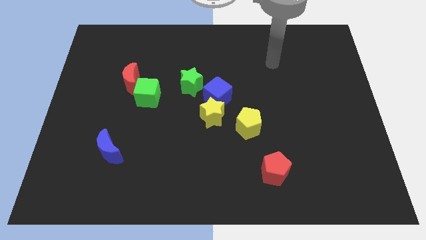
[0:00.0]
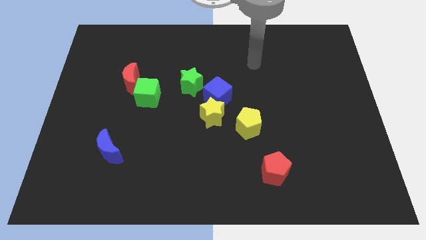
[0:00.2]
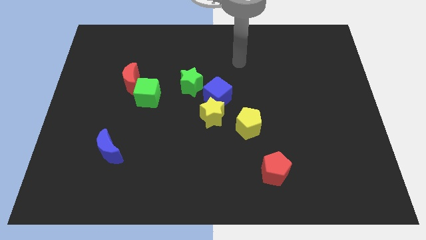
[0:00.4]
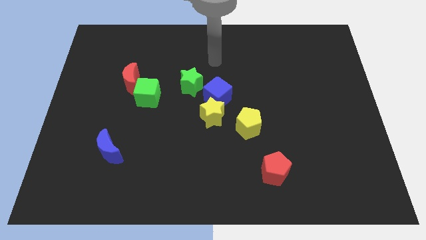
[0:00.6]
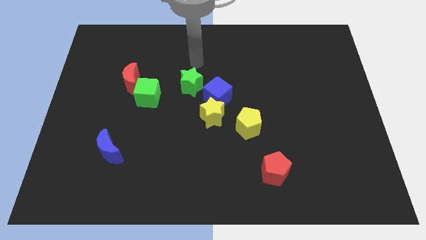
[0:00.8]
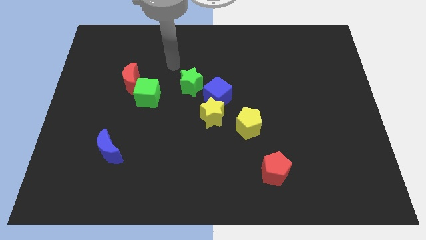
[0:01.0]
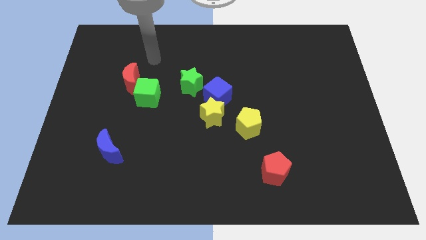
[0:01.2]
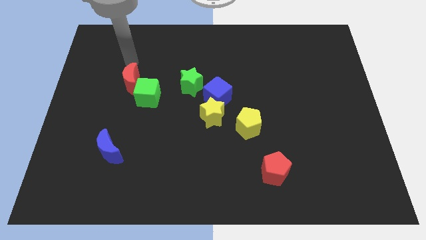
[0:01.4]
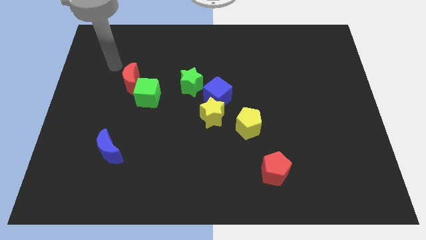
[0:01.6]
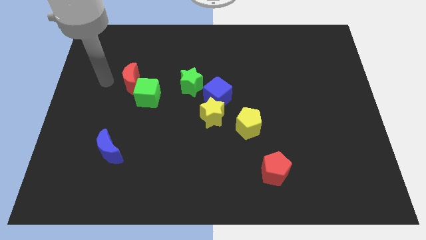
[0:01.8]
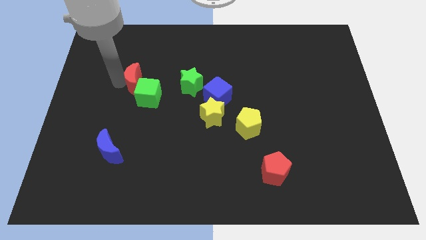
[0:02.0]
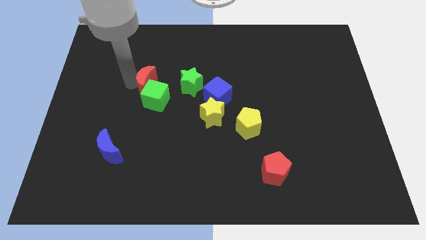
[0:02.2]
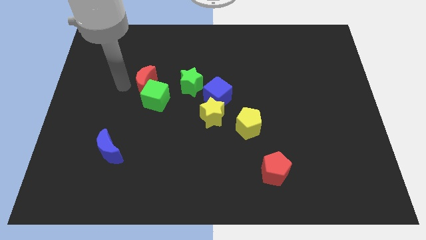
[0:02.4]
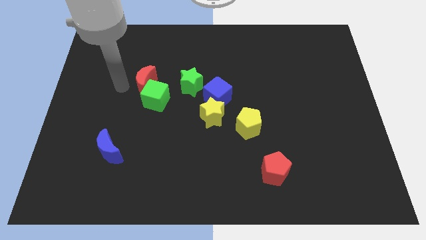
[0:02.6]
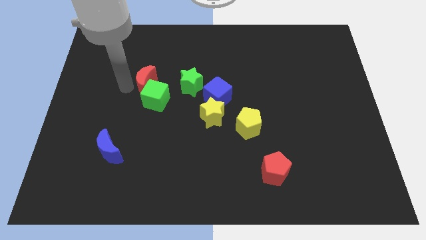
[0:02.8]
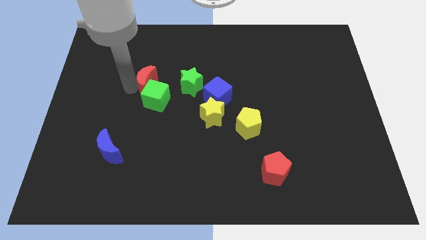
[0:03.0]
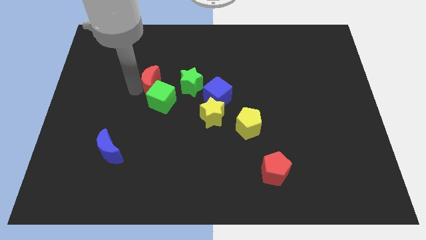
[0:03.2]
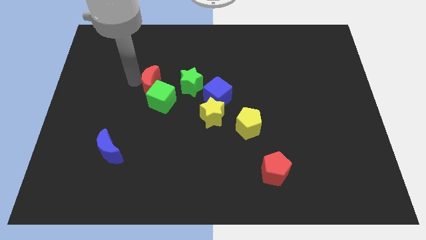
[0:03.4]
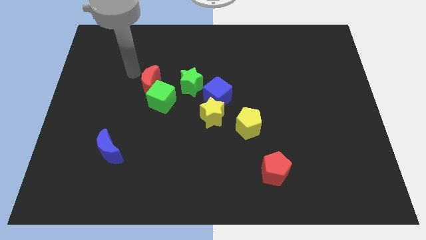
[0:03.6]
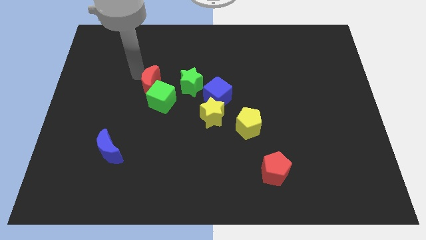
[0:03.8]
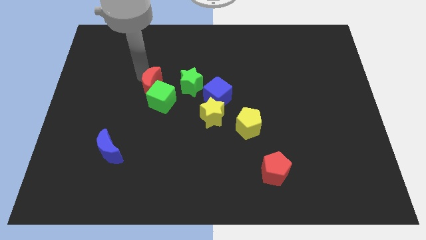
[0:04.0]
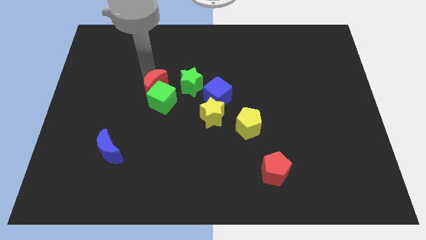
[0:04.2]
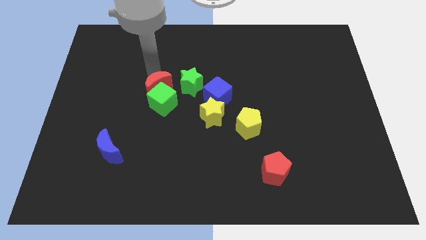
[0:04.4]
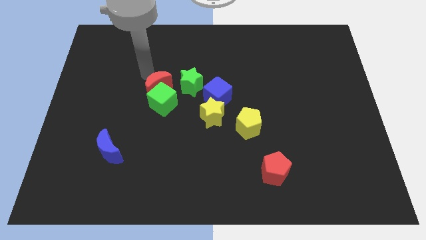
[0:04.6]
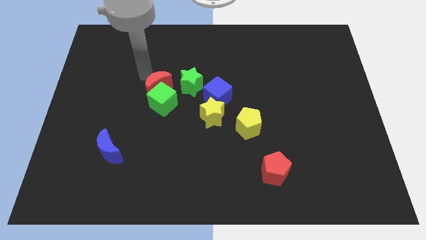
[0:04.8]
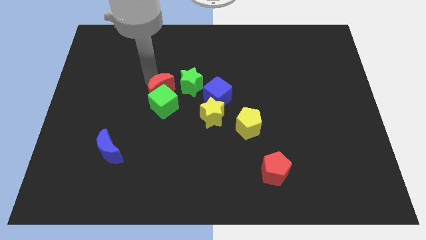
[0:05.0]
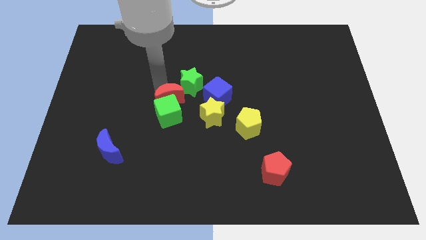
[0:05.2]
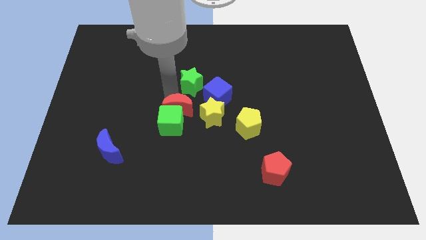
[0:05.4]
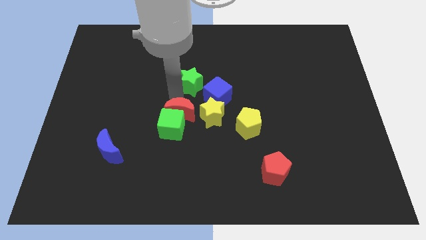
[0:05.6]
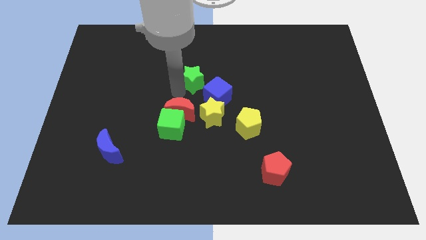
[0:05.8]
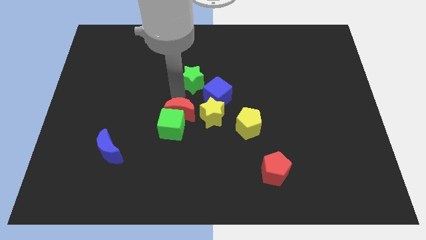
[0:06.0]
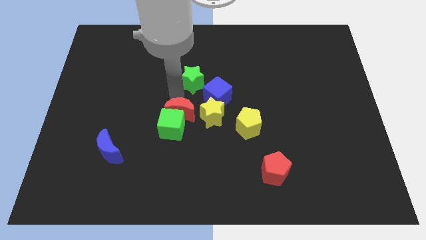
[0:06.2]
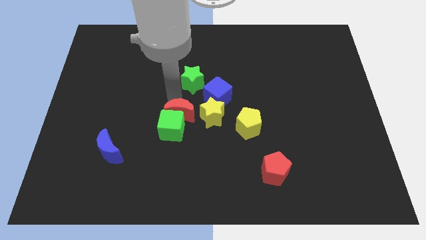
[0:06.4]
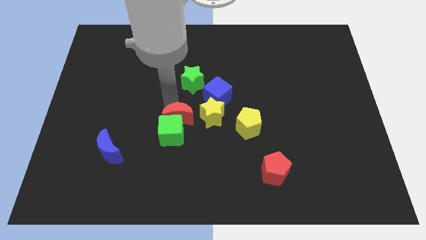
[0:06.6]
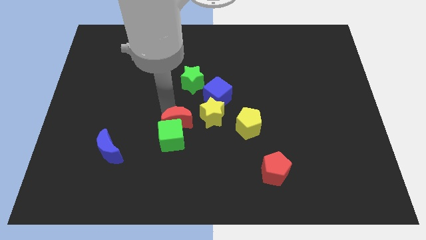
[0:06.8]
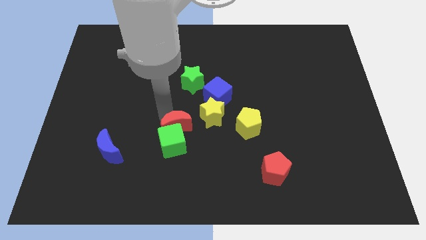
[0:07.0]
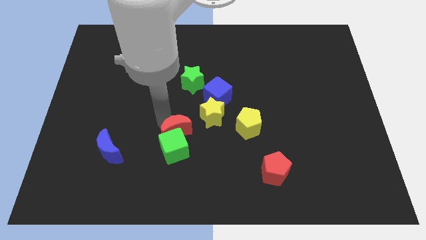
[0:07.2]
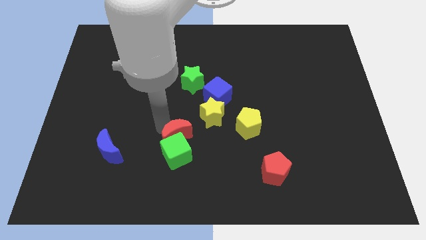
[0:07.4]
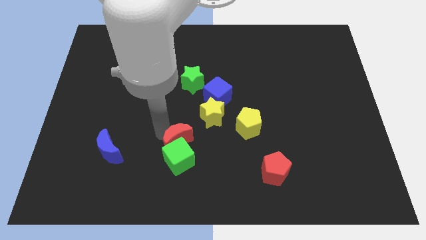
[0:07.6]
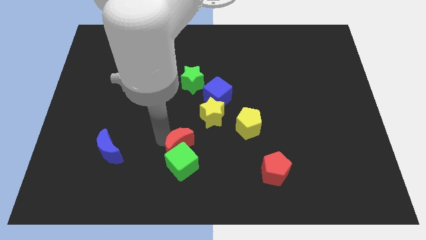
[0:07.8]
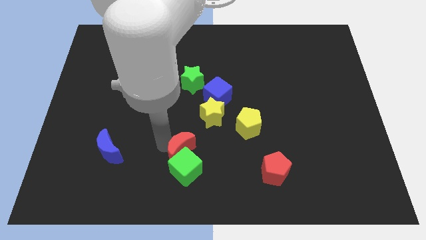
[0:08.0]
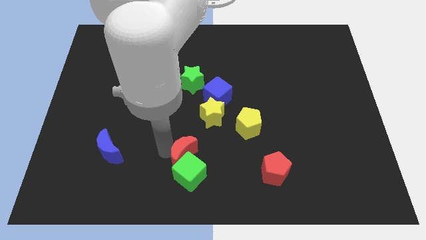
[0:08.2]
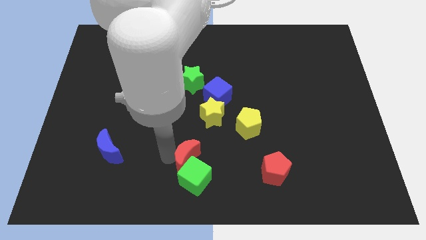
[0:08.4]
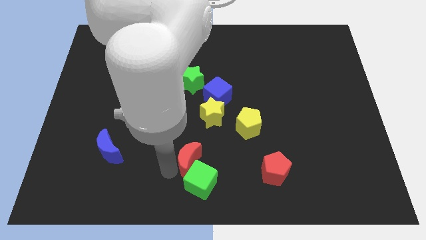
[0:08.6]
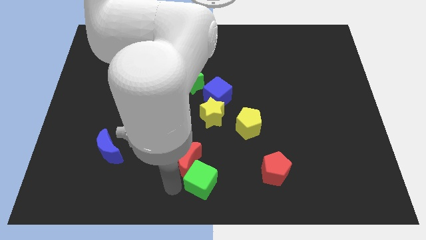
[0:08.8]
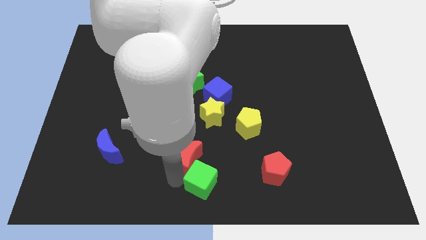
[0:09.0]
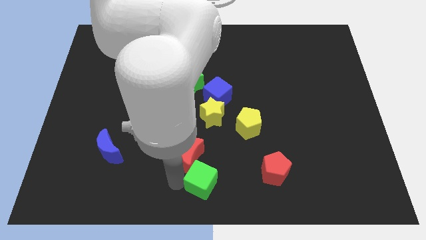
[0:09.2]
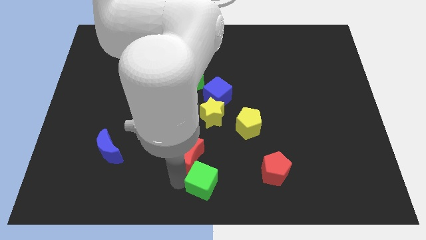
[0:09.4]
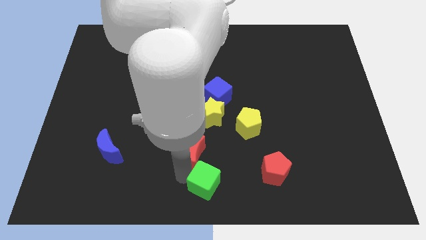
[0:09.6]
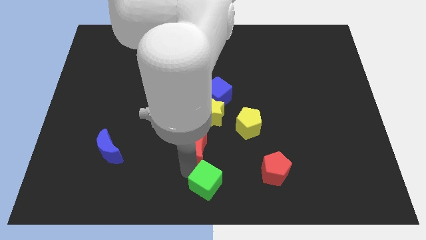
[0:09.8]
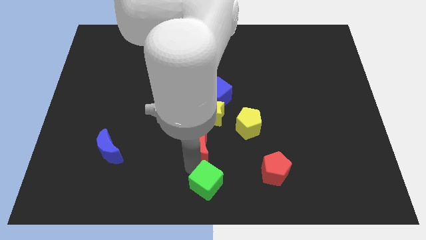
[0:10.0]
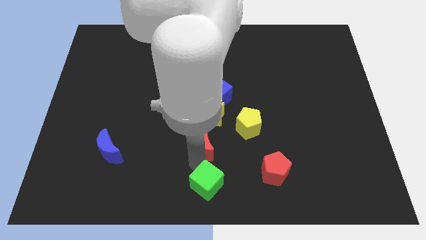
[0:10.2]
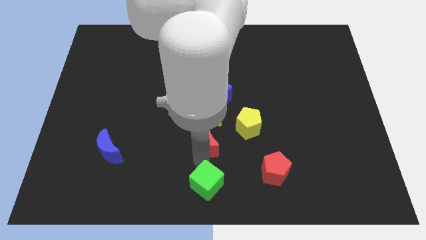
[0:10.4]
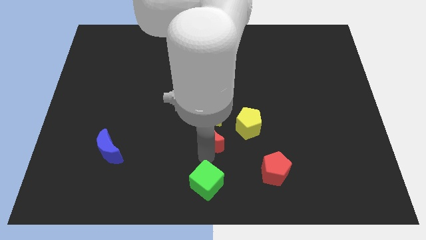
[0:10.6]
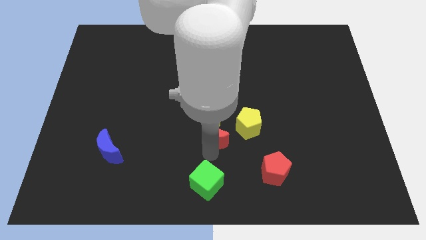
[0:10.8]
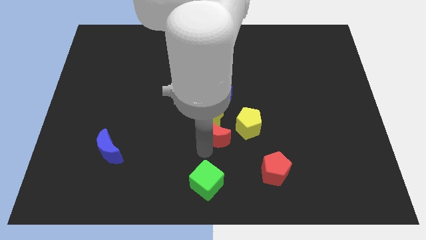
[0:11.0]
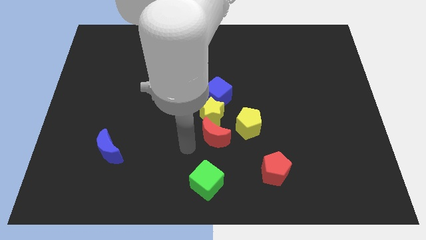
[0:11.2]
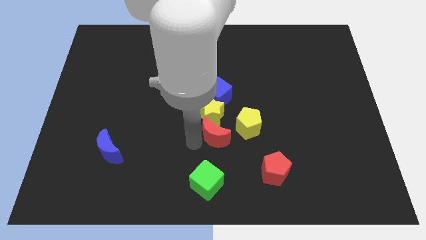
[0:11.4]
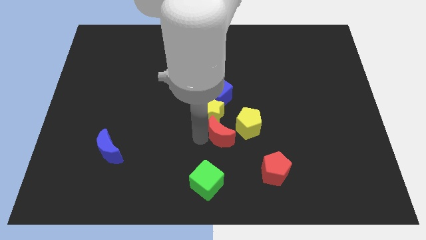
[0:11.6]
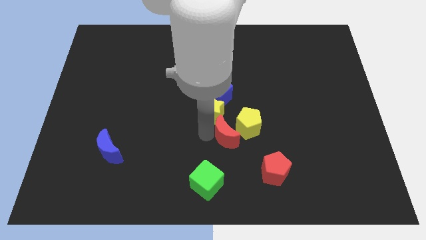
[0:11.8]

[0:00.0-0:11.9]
put the red moon next to the yellow pentagon

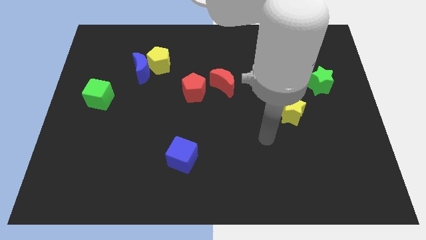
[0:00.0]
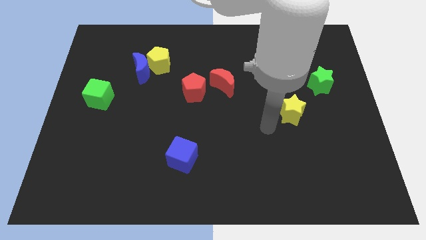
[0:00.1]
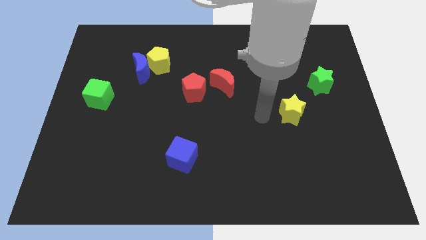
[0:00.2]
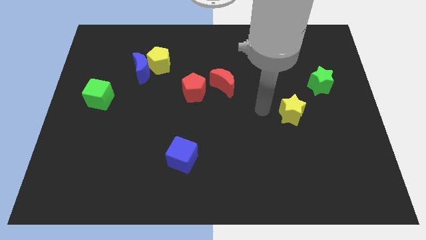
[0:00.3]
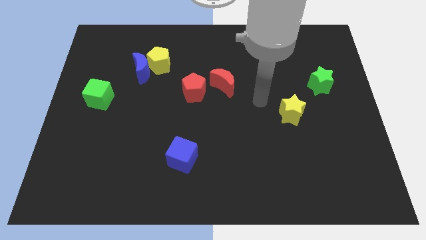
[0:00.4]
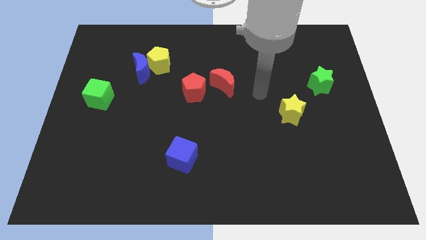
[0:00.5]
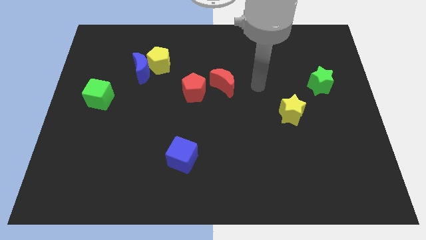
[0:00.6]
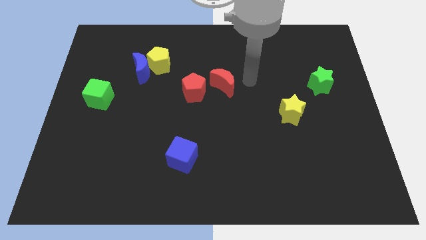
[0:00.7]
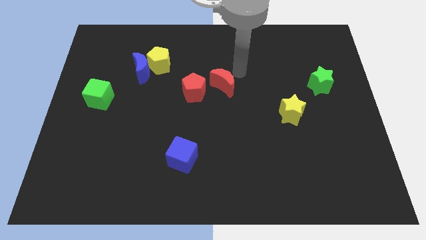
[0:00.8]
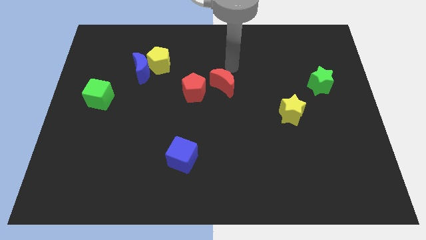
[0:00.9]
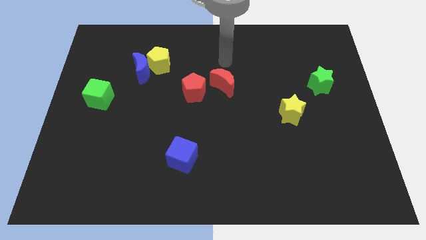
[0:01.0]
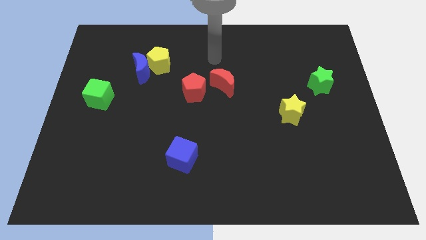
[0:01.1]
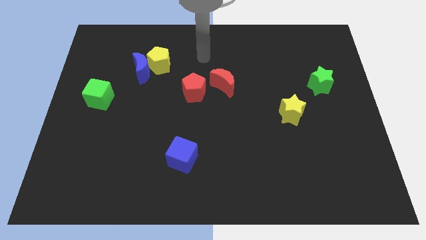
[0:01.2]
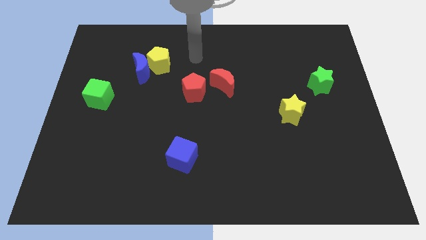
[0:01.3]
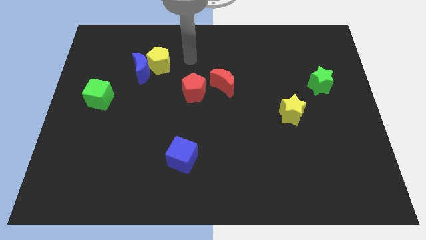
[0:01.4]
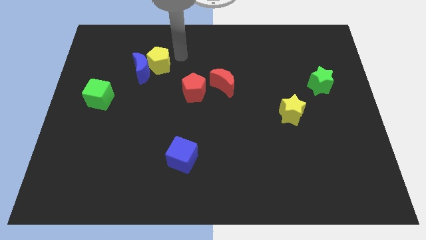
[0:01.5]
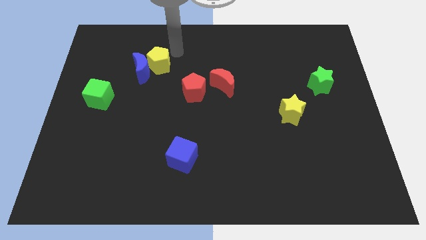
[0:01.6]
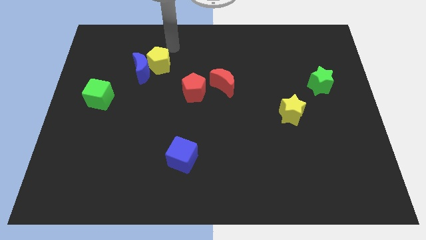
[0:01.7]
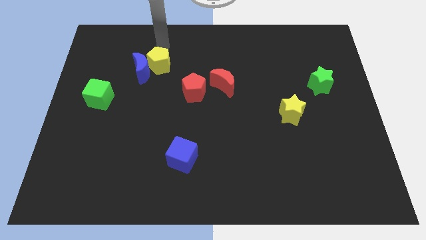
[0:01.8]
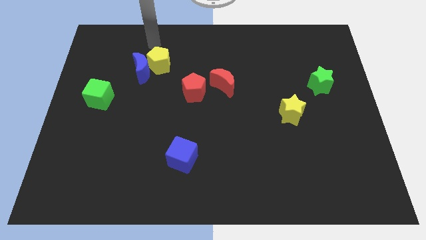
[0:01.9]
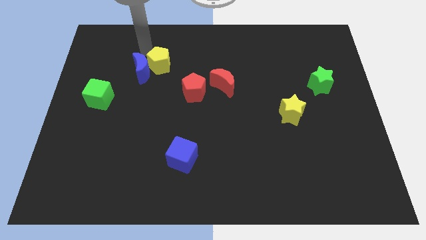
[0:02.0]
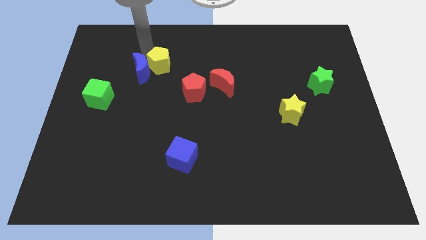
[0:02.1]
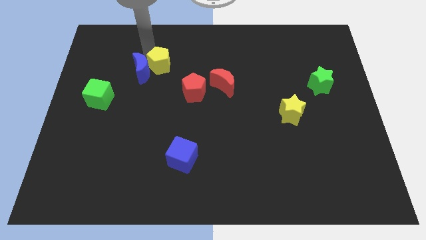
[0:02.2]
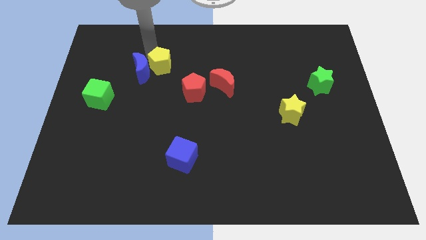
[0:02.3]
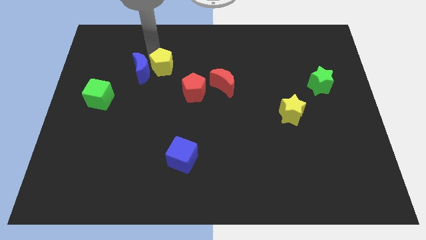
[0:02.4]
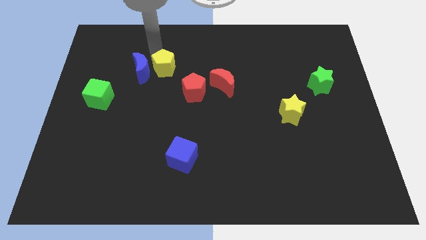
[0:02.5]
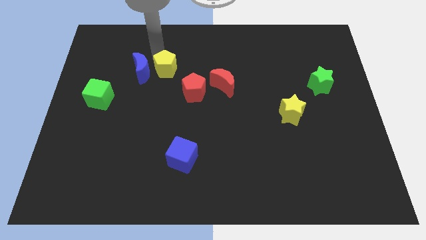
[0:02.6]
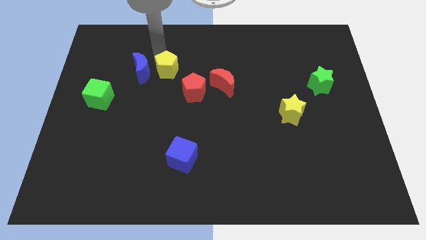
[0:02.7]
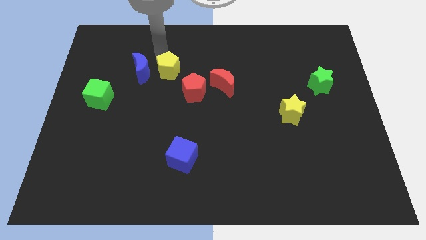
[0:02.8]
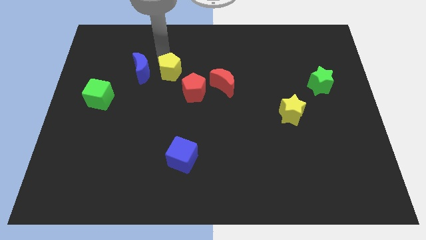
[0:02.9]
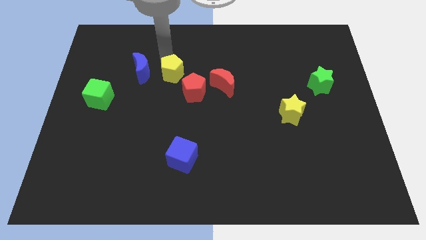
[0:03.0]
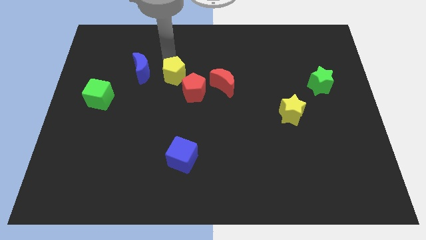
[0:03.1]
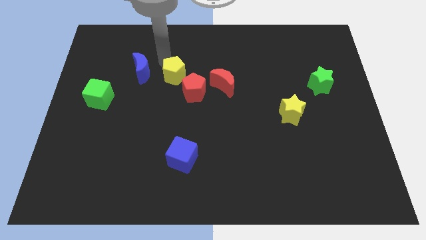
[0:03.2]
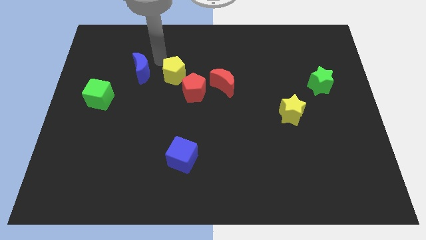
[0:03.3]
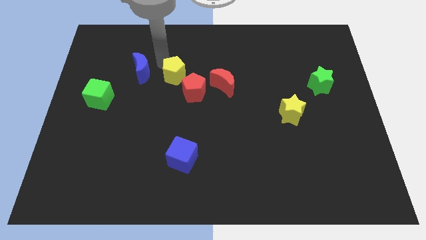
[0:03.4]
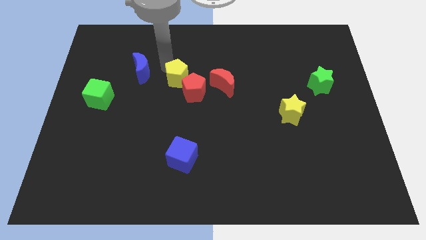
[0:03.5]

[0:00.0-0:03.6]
push the yellow pentagon to the red pentagon
